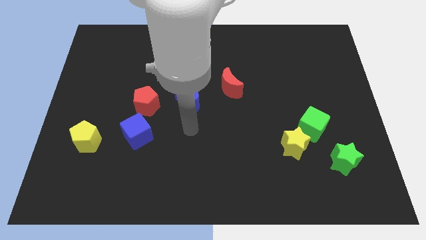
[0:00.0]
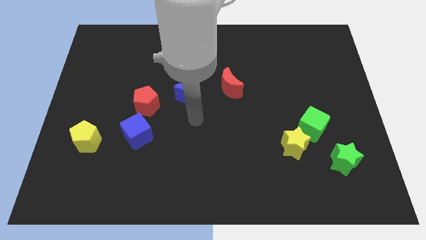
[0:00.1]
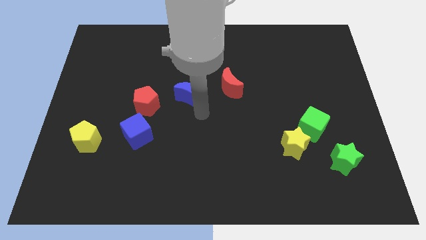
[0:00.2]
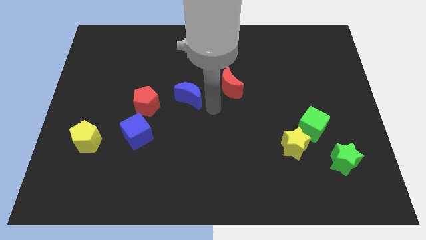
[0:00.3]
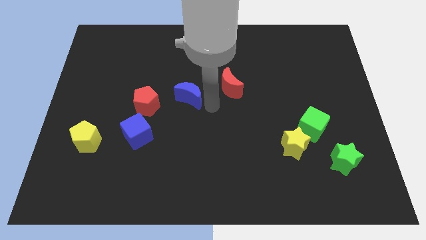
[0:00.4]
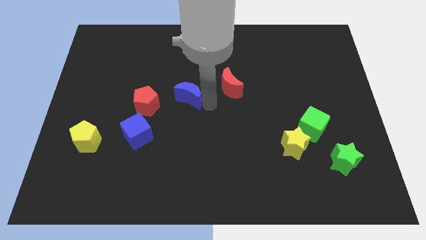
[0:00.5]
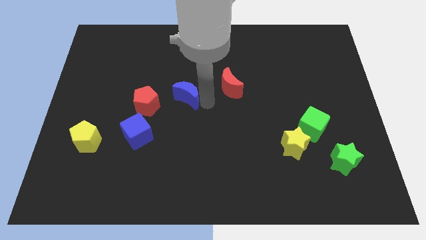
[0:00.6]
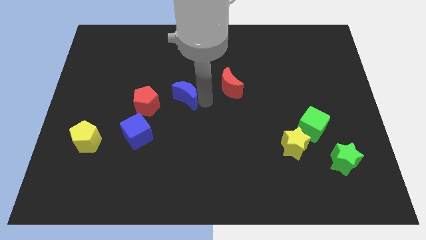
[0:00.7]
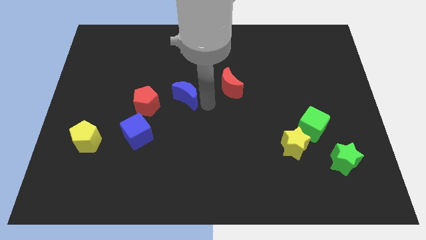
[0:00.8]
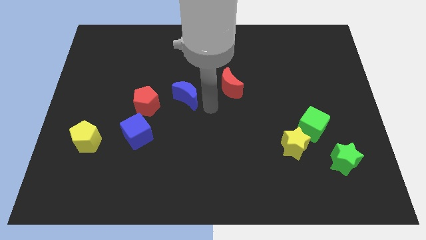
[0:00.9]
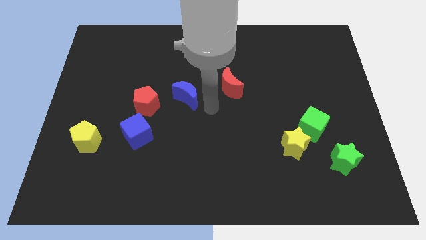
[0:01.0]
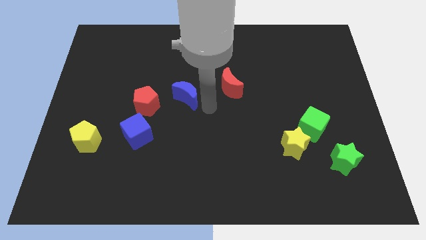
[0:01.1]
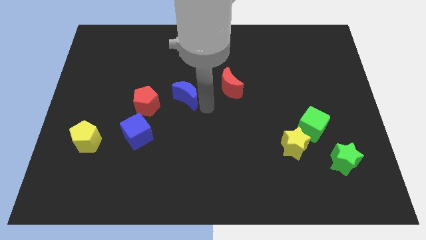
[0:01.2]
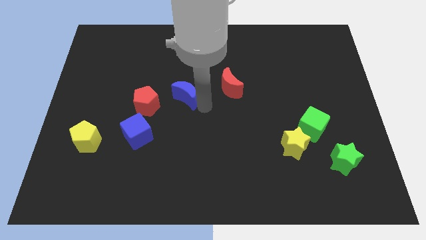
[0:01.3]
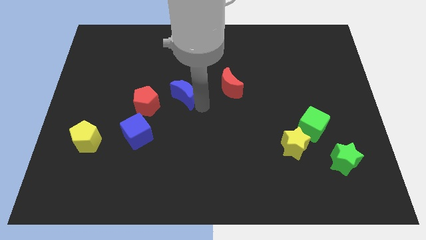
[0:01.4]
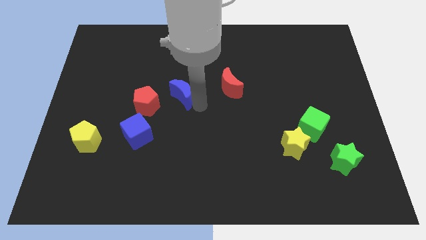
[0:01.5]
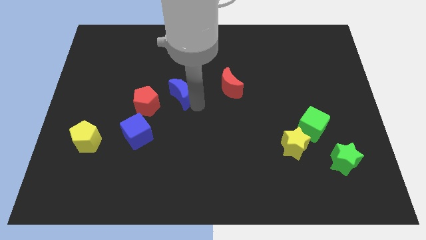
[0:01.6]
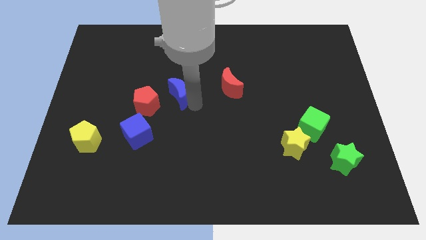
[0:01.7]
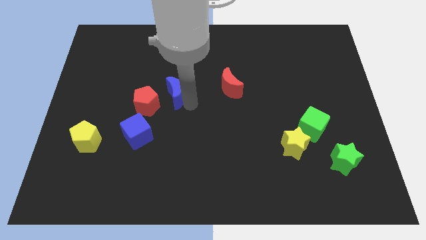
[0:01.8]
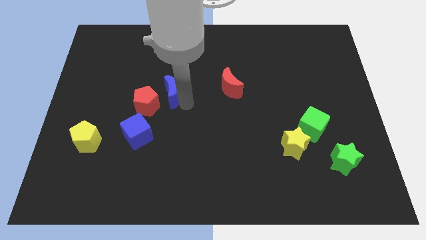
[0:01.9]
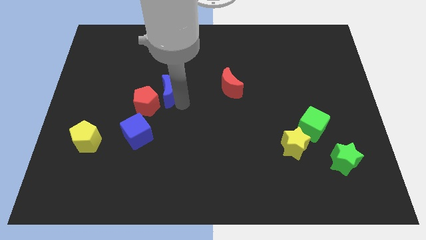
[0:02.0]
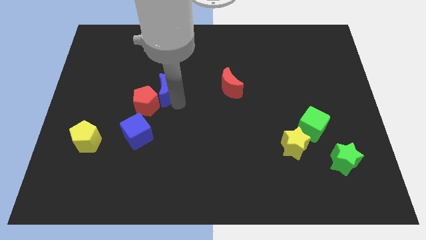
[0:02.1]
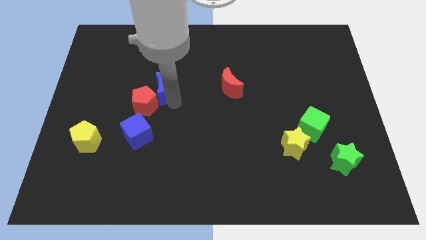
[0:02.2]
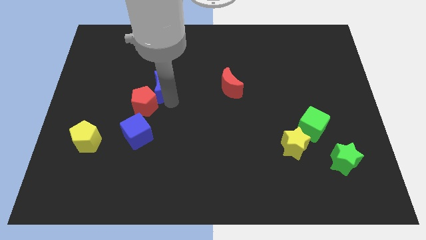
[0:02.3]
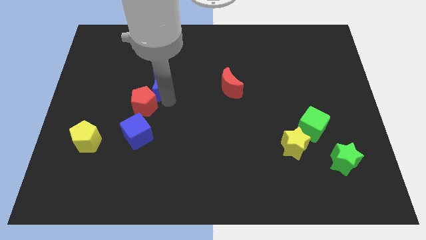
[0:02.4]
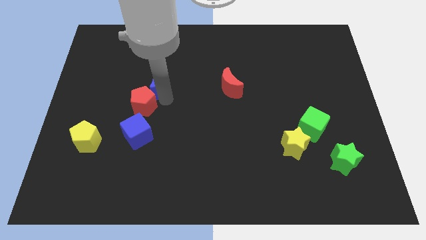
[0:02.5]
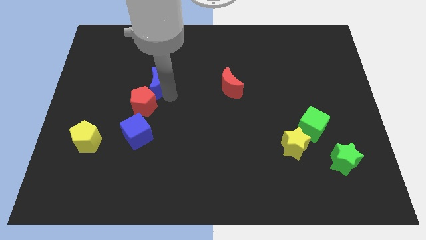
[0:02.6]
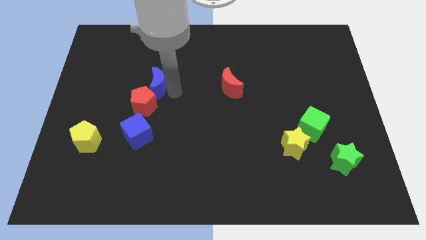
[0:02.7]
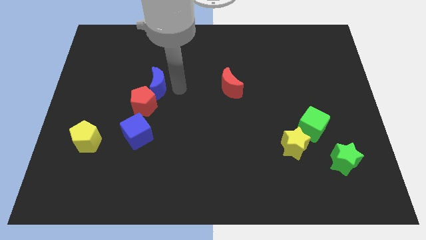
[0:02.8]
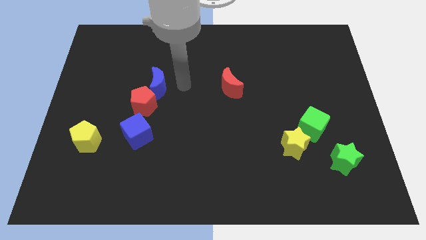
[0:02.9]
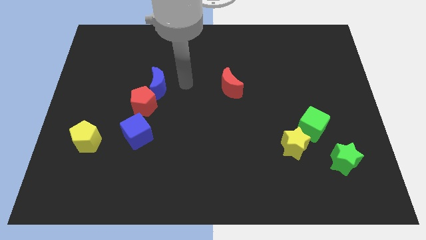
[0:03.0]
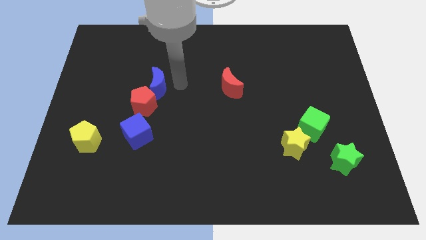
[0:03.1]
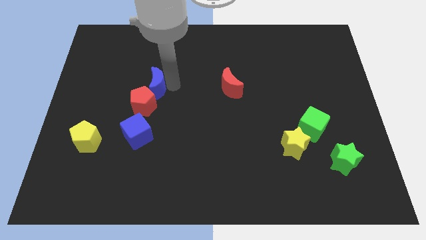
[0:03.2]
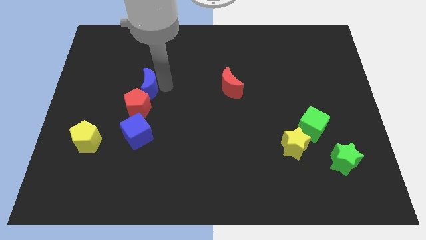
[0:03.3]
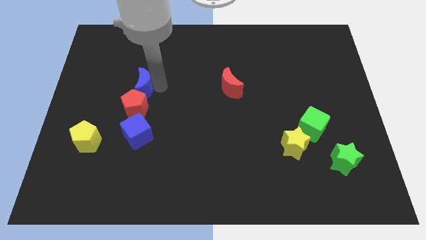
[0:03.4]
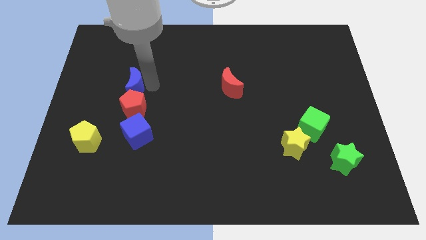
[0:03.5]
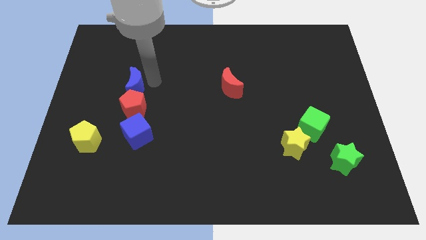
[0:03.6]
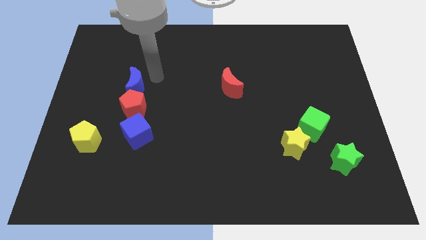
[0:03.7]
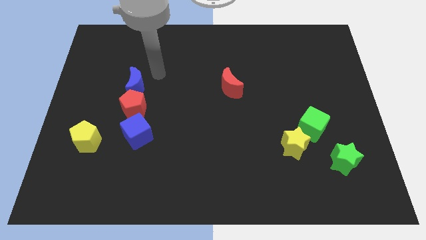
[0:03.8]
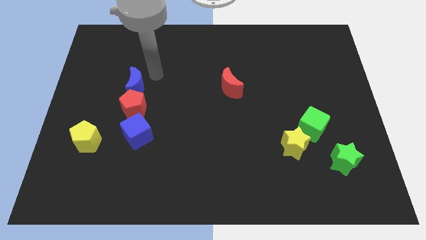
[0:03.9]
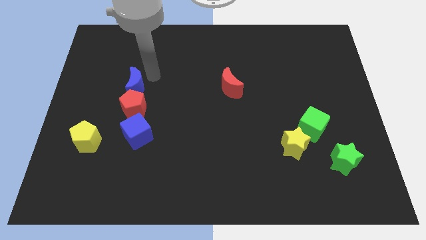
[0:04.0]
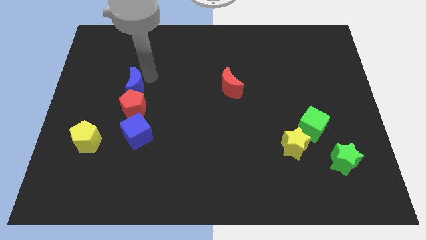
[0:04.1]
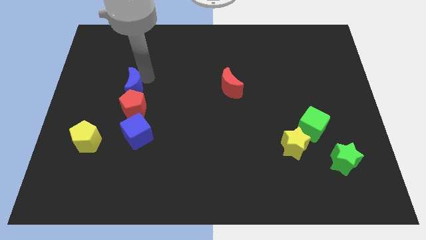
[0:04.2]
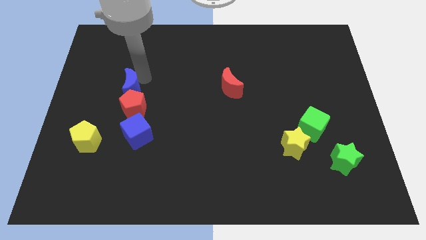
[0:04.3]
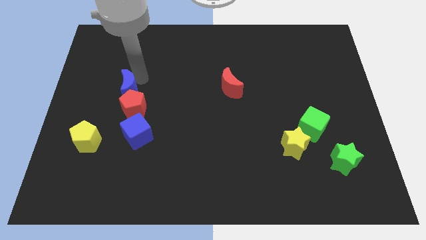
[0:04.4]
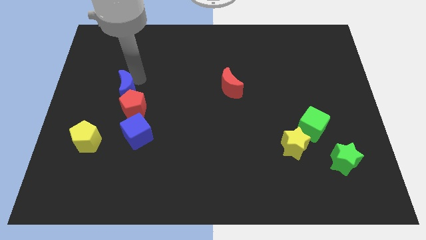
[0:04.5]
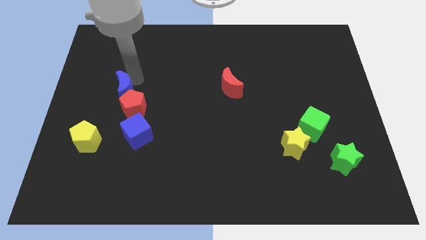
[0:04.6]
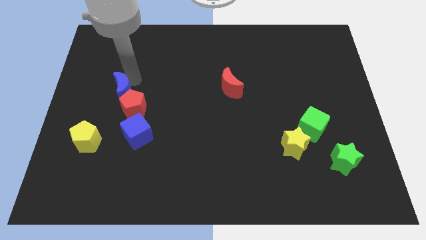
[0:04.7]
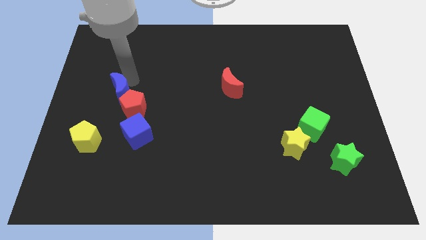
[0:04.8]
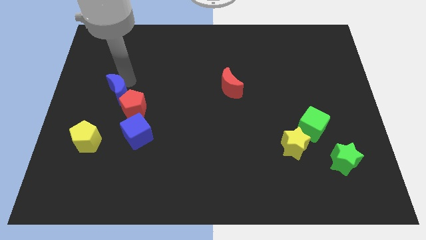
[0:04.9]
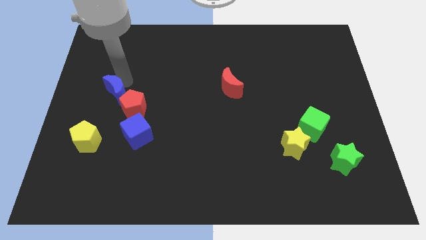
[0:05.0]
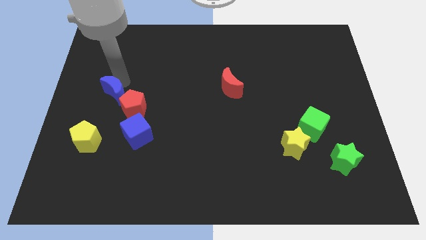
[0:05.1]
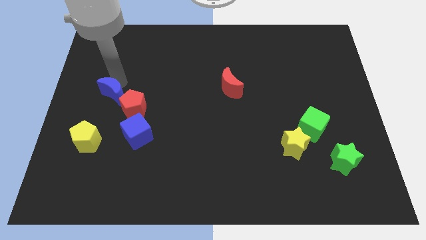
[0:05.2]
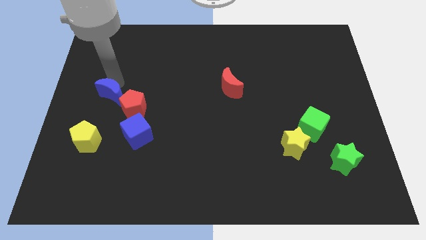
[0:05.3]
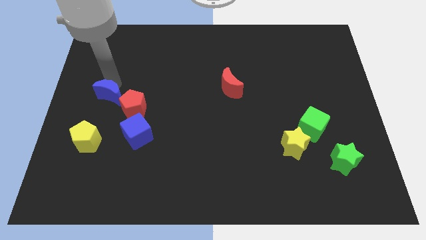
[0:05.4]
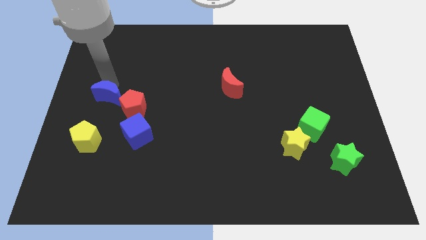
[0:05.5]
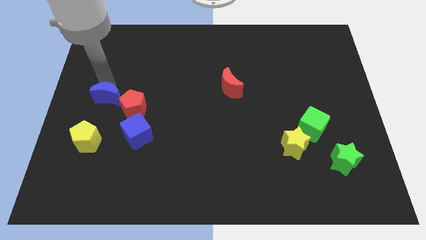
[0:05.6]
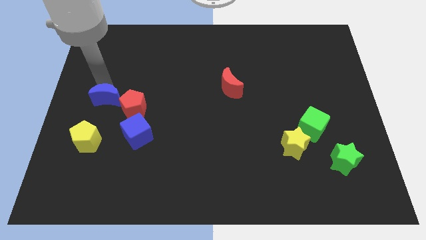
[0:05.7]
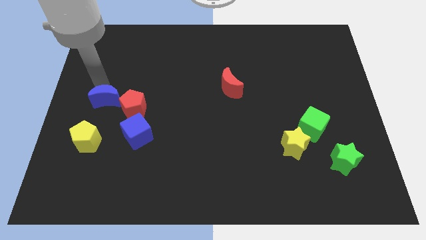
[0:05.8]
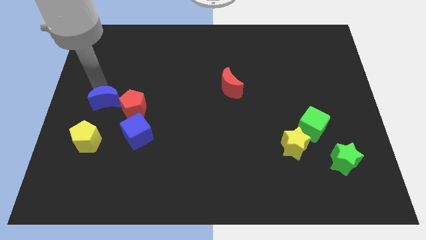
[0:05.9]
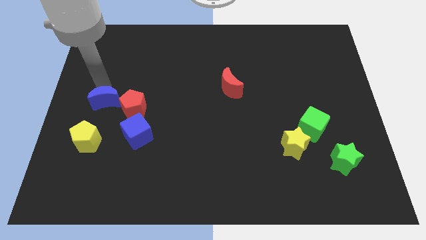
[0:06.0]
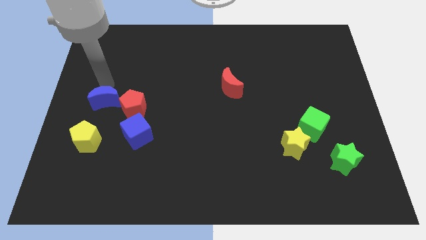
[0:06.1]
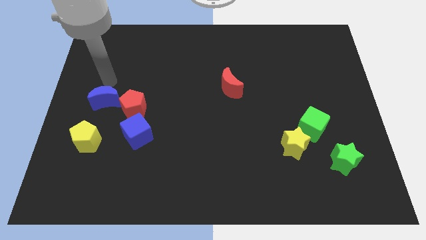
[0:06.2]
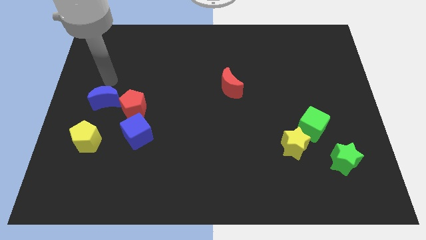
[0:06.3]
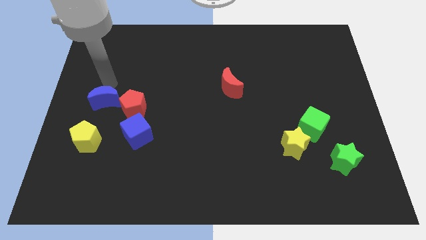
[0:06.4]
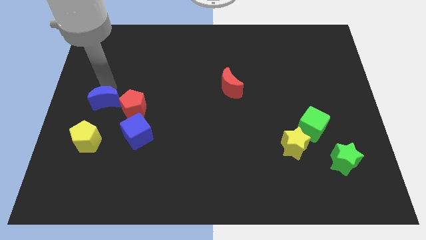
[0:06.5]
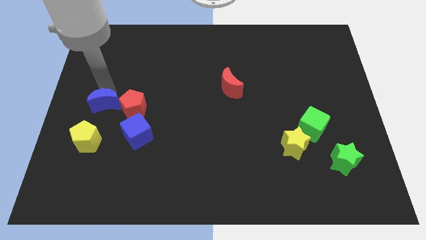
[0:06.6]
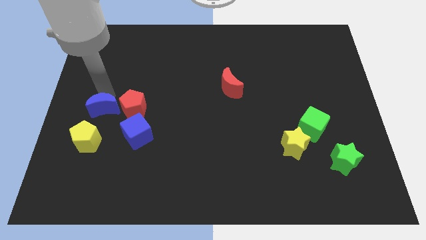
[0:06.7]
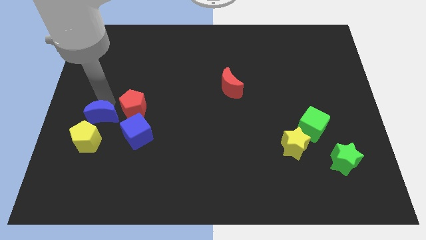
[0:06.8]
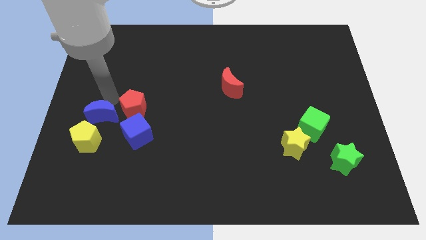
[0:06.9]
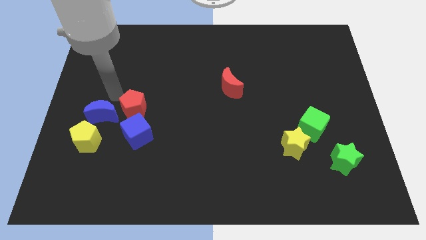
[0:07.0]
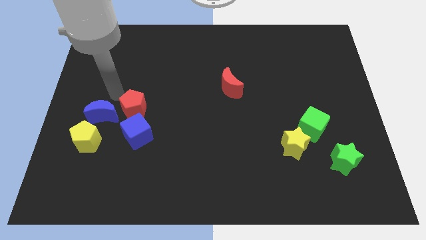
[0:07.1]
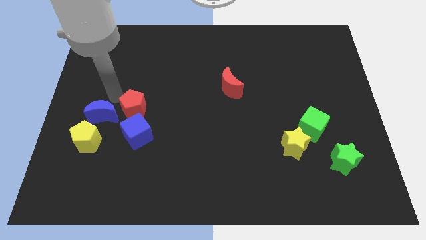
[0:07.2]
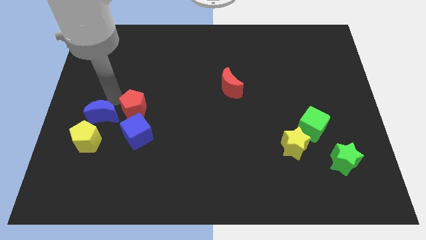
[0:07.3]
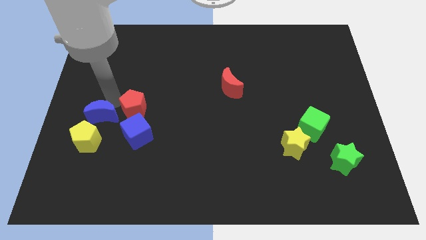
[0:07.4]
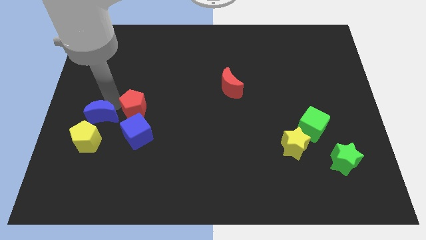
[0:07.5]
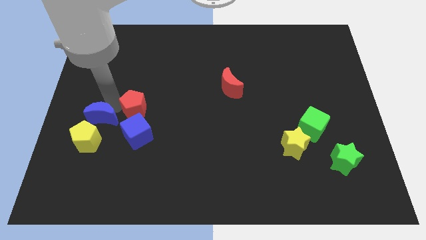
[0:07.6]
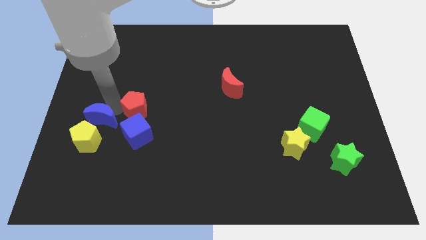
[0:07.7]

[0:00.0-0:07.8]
move the blue moon close to the yellow pentagon
